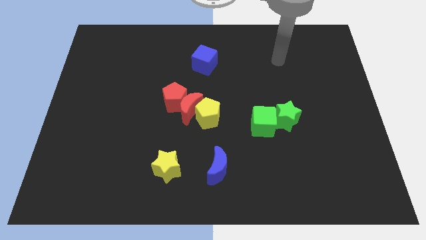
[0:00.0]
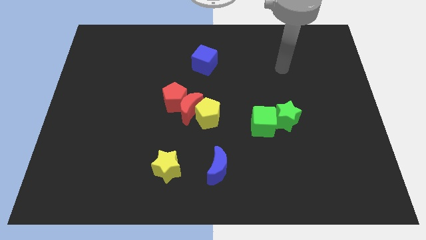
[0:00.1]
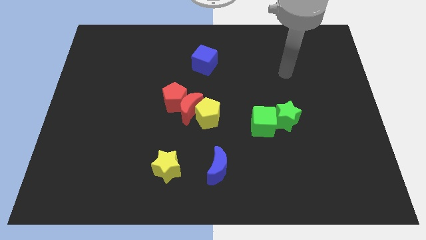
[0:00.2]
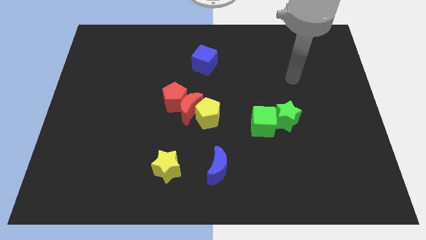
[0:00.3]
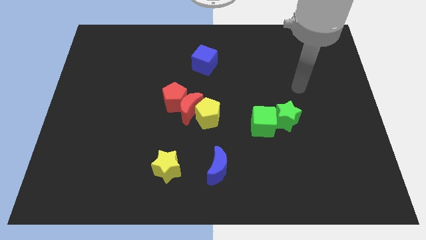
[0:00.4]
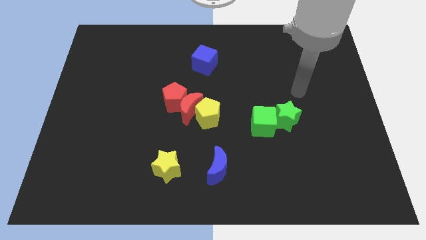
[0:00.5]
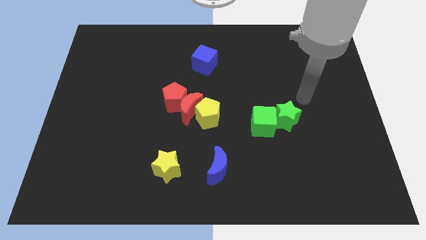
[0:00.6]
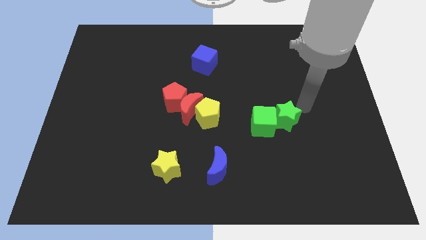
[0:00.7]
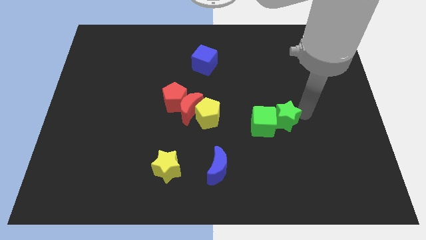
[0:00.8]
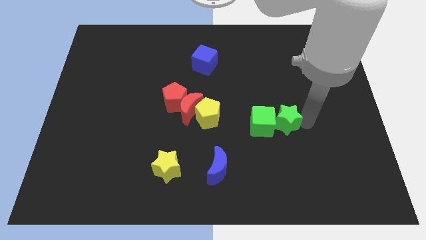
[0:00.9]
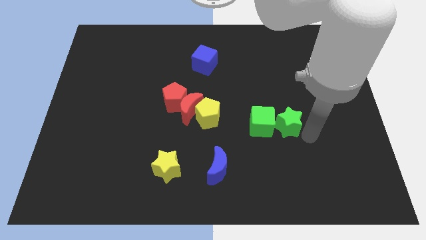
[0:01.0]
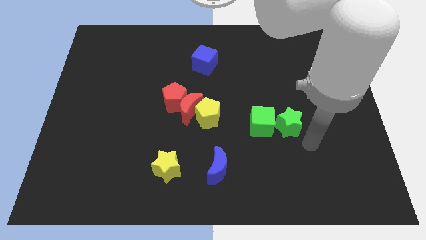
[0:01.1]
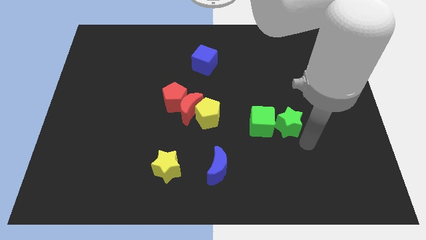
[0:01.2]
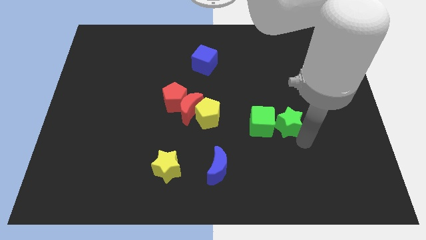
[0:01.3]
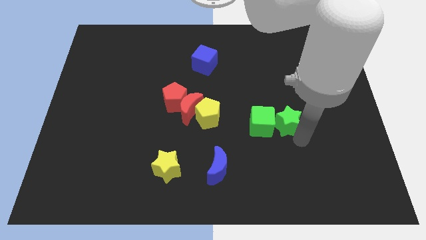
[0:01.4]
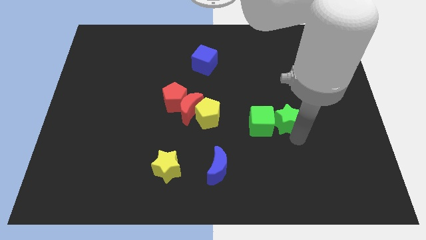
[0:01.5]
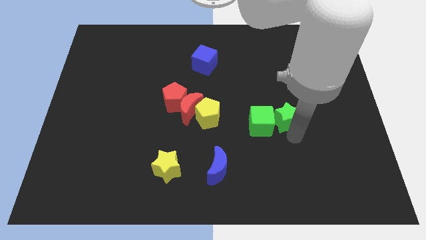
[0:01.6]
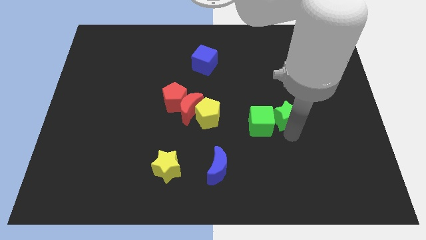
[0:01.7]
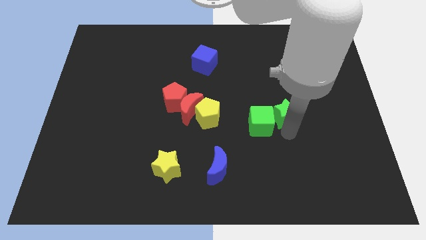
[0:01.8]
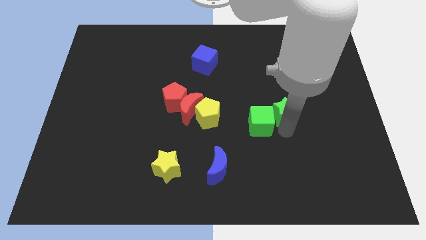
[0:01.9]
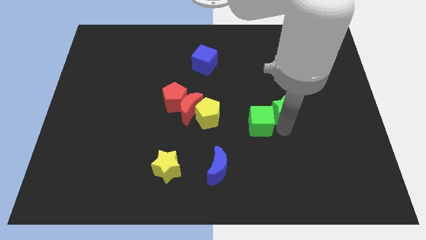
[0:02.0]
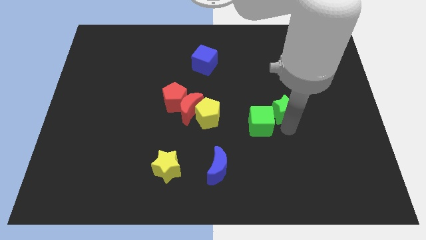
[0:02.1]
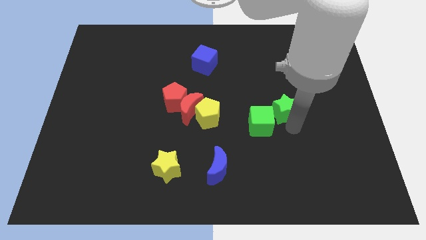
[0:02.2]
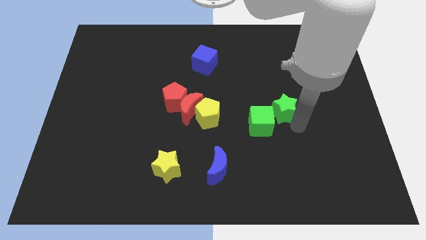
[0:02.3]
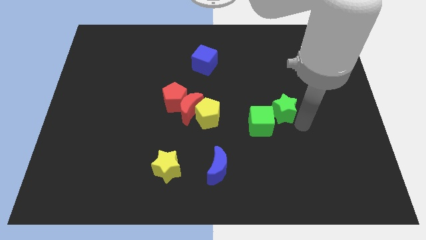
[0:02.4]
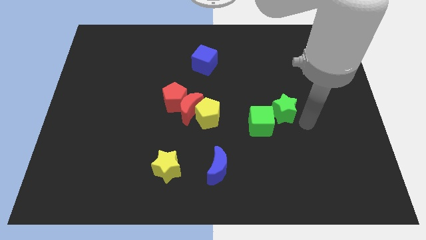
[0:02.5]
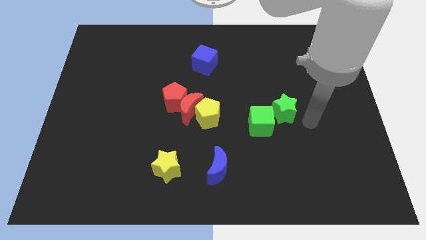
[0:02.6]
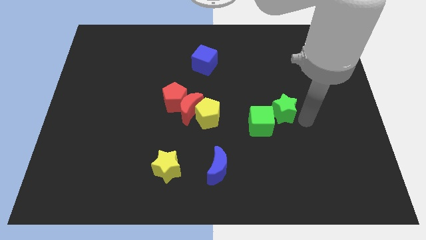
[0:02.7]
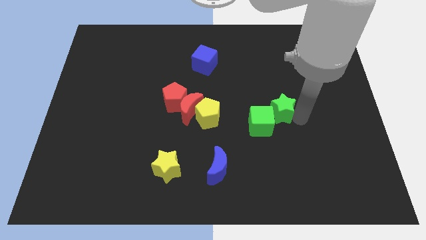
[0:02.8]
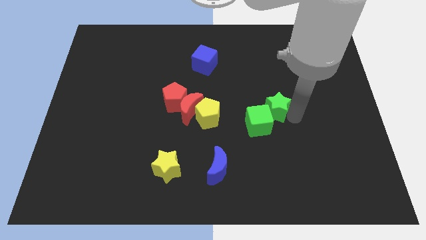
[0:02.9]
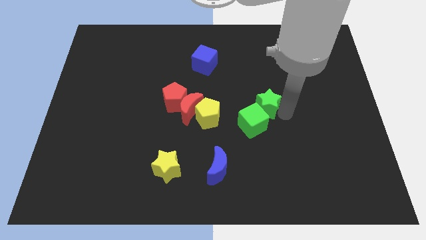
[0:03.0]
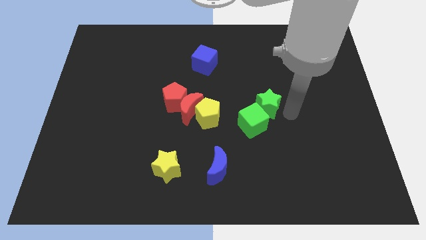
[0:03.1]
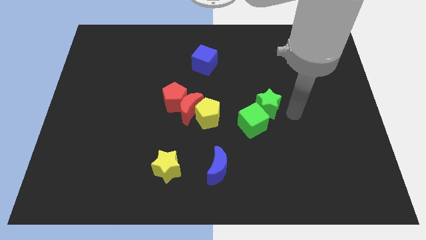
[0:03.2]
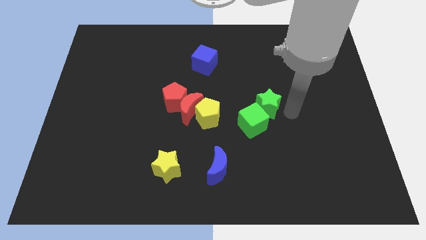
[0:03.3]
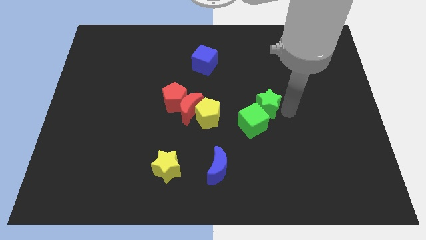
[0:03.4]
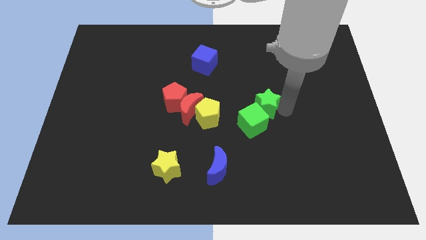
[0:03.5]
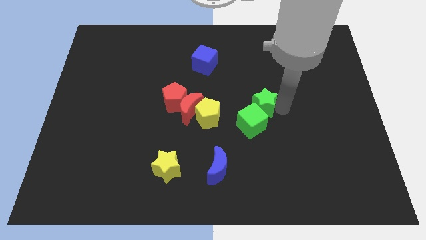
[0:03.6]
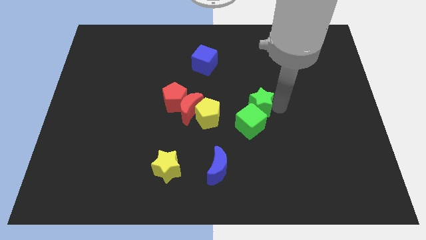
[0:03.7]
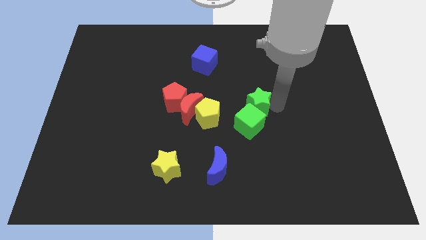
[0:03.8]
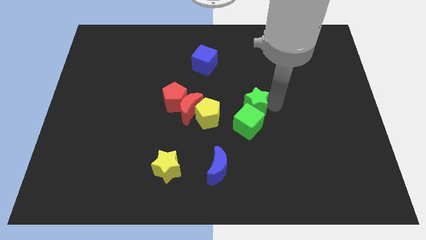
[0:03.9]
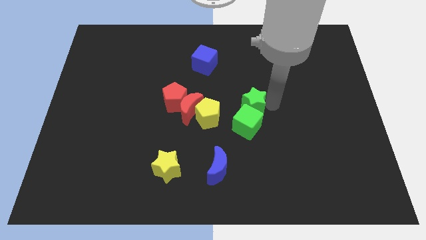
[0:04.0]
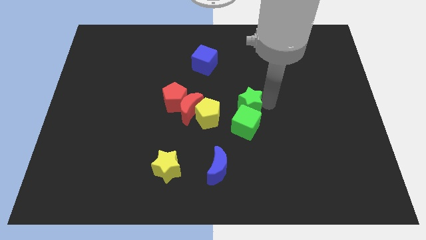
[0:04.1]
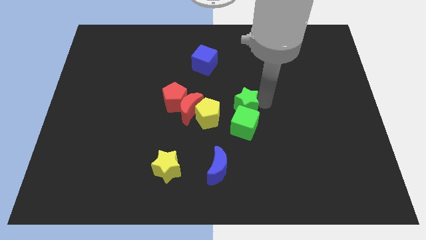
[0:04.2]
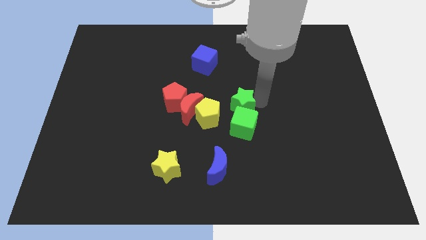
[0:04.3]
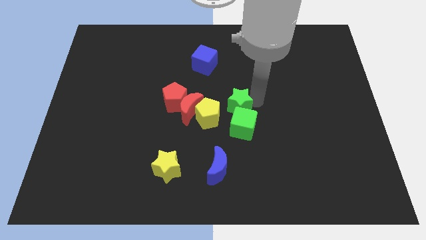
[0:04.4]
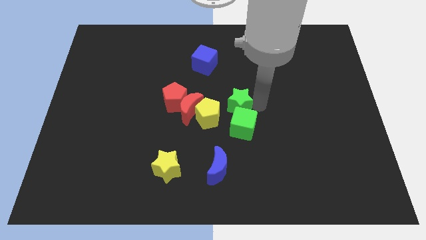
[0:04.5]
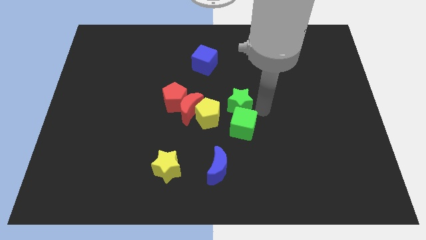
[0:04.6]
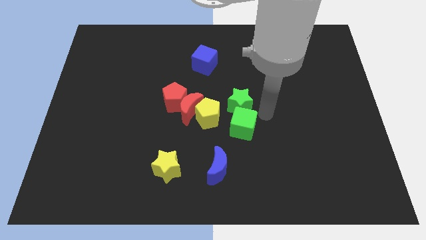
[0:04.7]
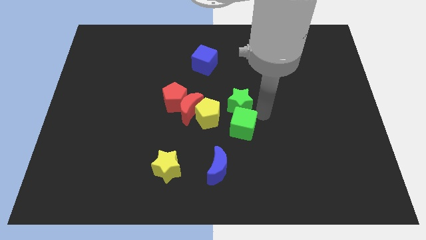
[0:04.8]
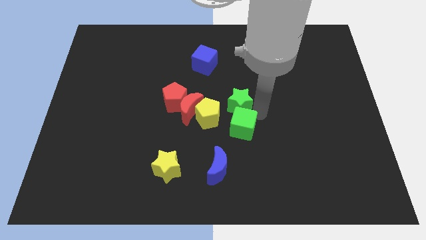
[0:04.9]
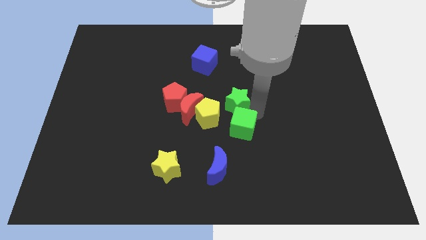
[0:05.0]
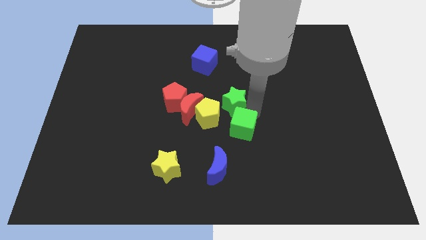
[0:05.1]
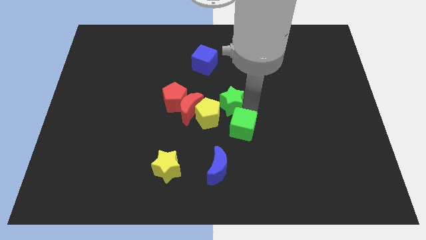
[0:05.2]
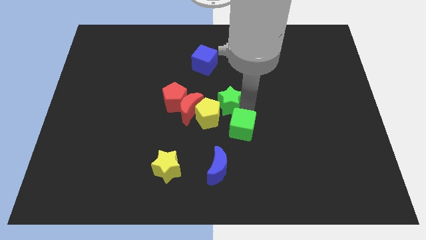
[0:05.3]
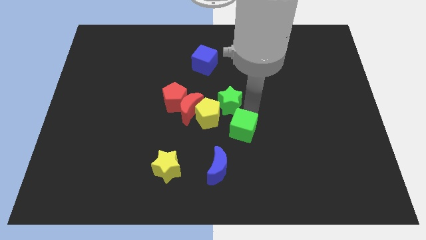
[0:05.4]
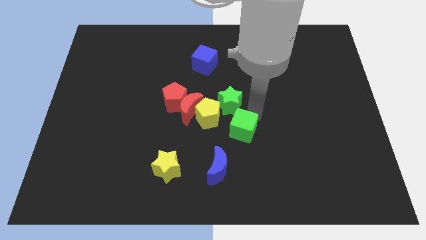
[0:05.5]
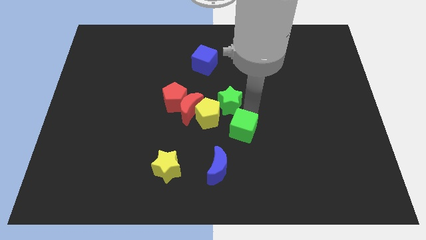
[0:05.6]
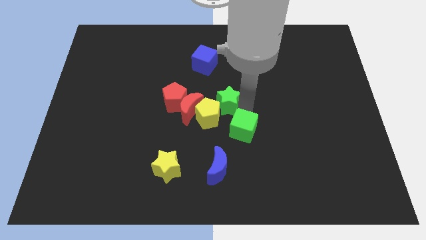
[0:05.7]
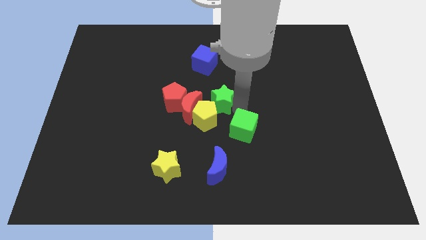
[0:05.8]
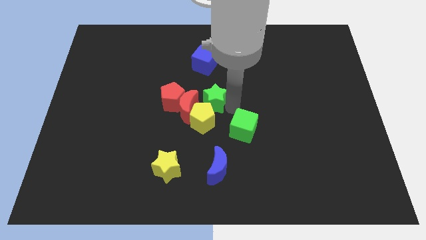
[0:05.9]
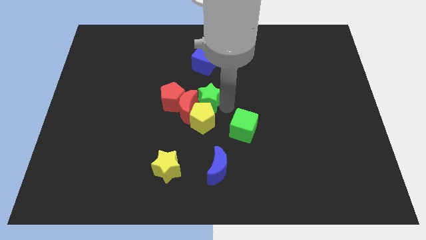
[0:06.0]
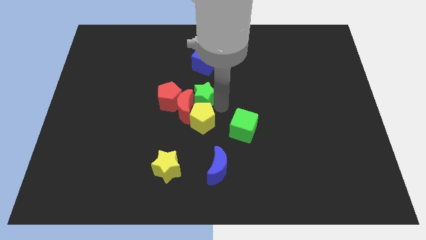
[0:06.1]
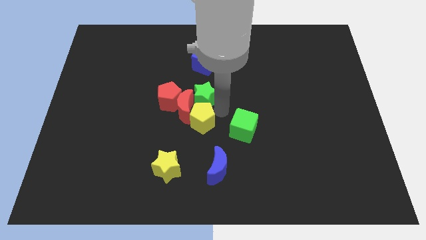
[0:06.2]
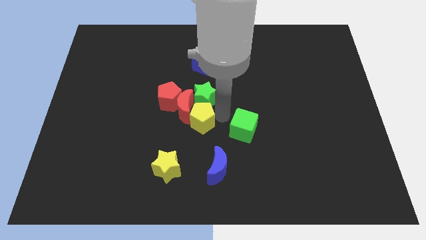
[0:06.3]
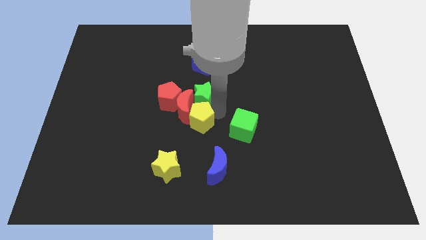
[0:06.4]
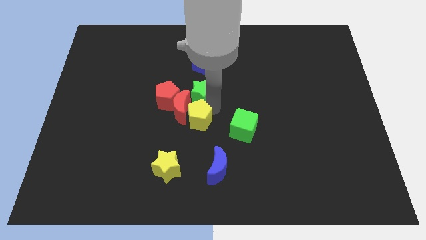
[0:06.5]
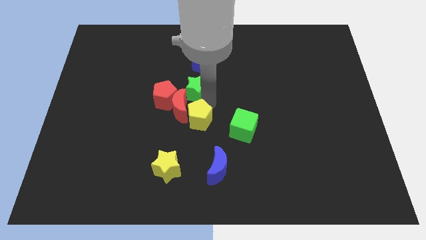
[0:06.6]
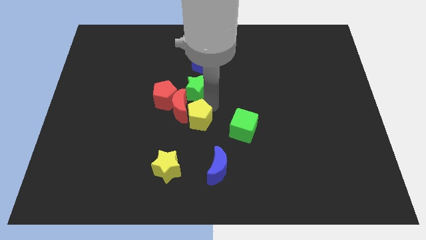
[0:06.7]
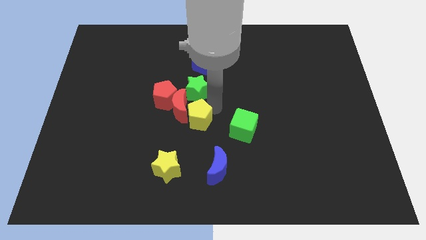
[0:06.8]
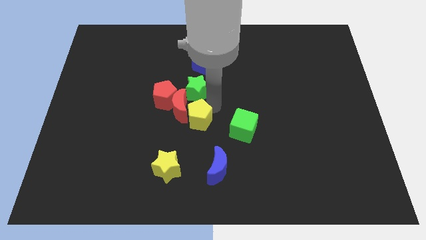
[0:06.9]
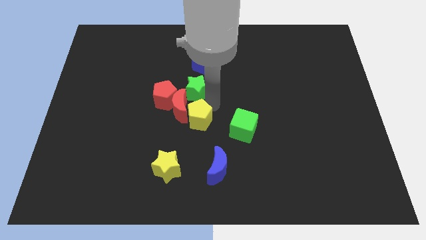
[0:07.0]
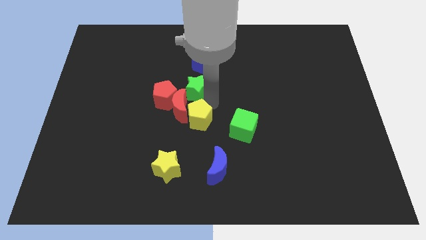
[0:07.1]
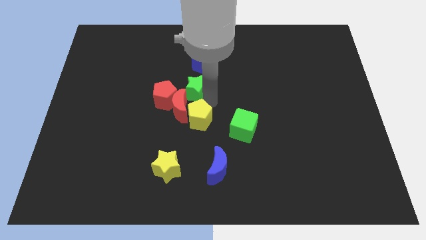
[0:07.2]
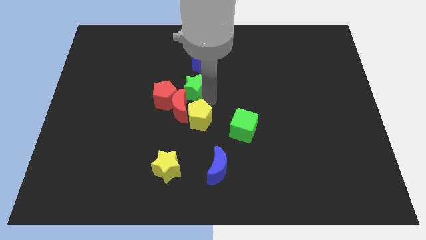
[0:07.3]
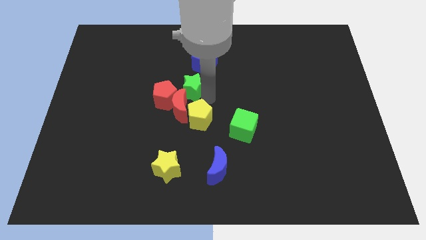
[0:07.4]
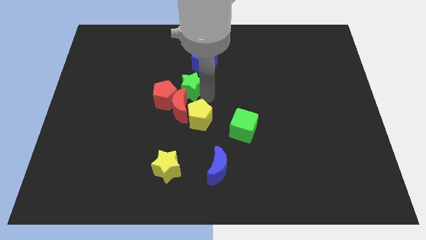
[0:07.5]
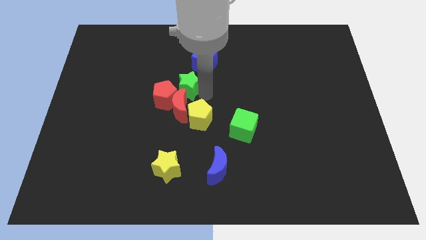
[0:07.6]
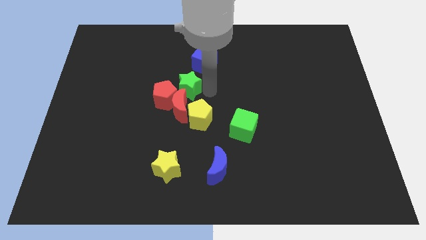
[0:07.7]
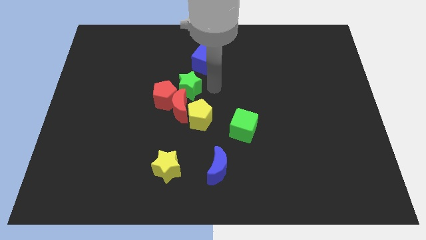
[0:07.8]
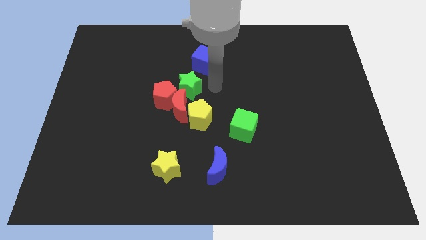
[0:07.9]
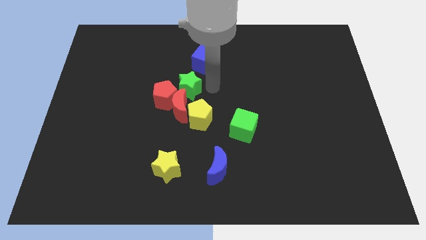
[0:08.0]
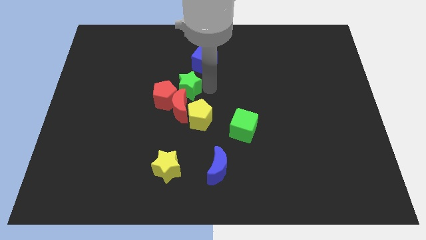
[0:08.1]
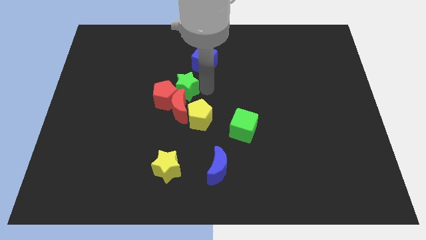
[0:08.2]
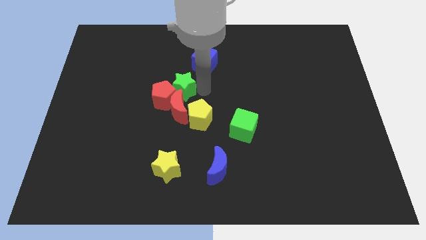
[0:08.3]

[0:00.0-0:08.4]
put the green star diagonally up and to the left of the red moon
